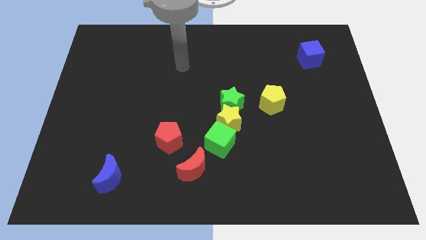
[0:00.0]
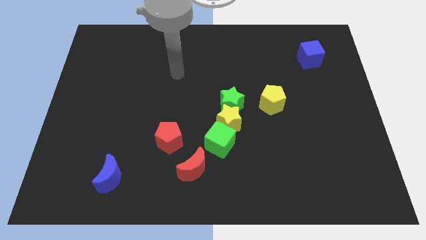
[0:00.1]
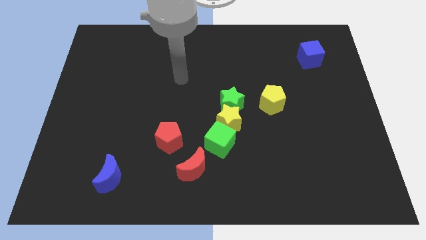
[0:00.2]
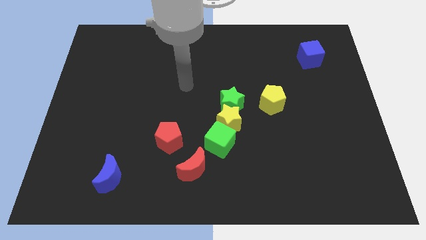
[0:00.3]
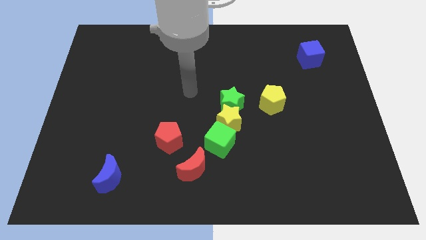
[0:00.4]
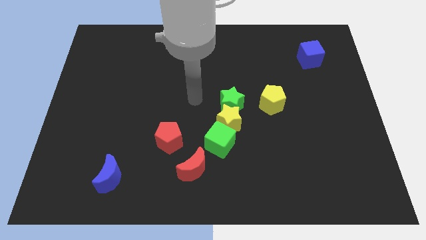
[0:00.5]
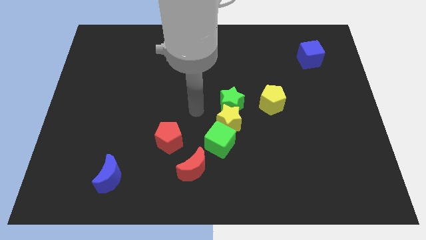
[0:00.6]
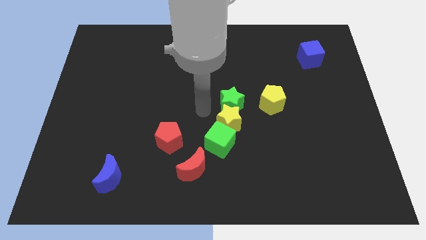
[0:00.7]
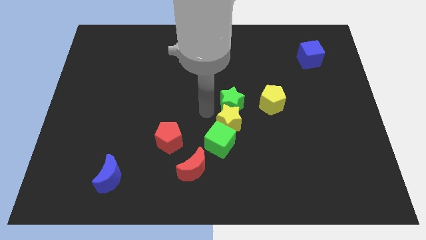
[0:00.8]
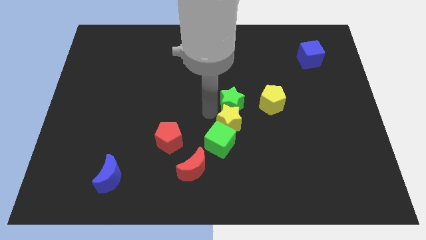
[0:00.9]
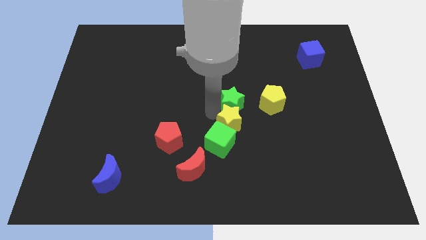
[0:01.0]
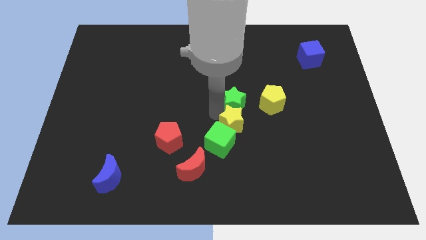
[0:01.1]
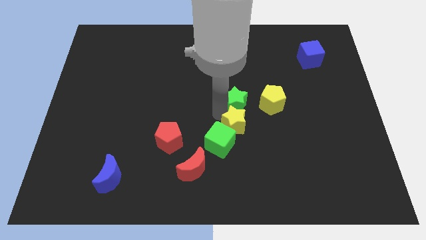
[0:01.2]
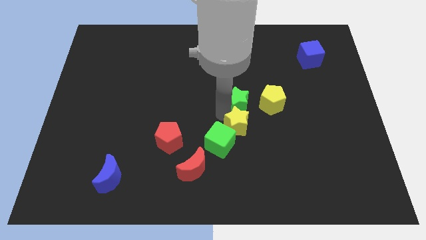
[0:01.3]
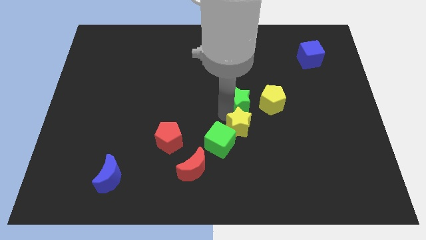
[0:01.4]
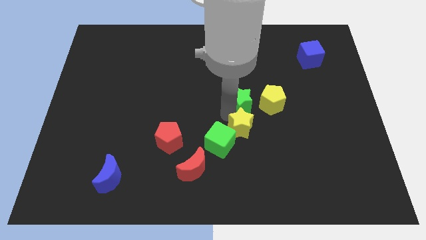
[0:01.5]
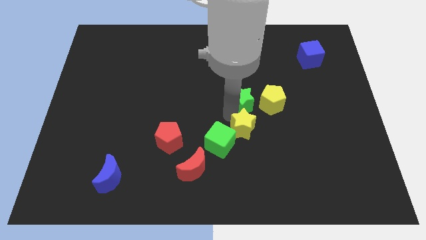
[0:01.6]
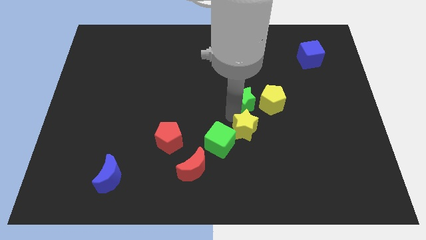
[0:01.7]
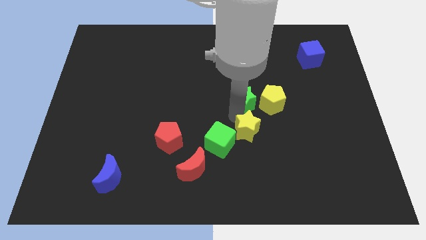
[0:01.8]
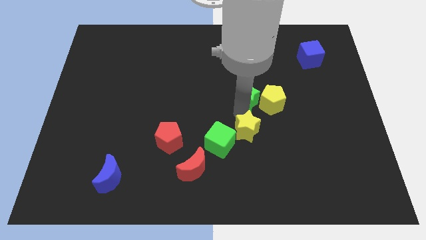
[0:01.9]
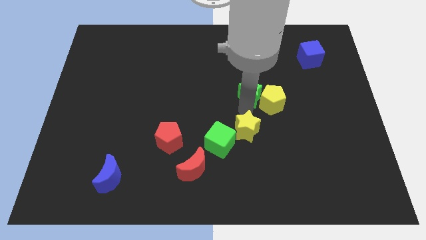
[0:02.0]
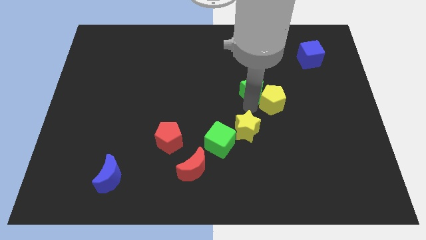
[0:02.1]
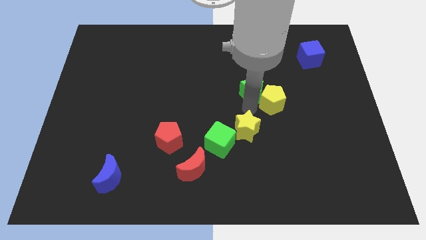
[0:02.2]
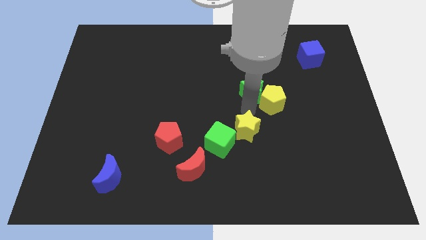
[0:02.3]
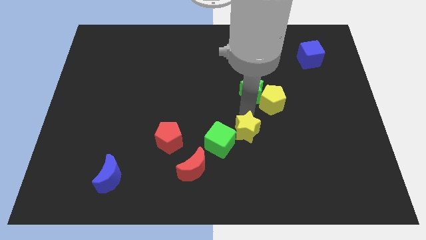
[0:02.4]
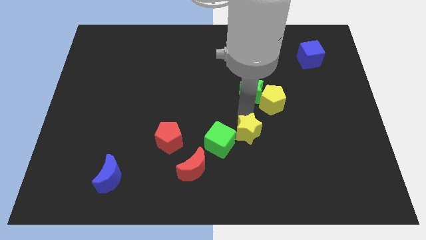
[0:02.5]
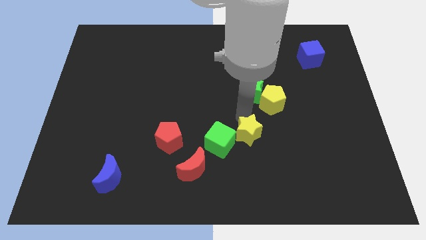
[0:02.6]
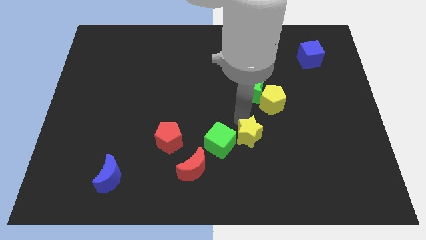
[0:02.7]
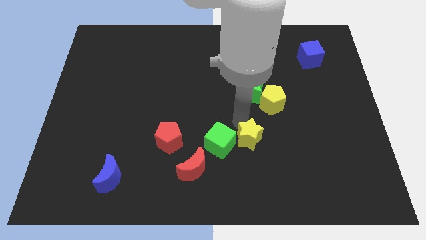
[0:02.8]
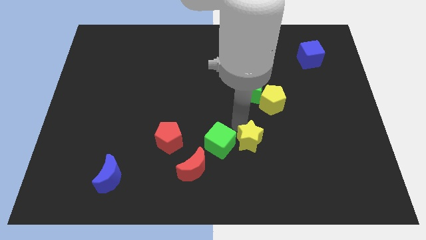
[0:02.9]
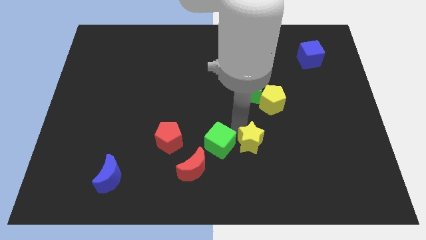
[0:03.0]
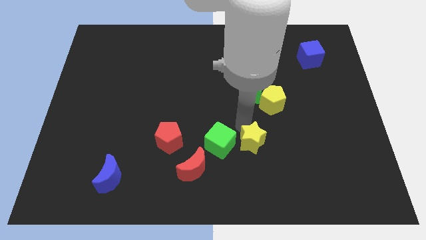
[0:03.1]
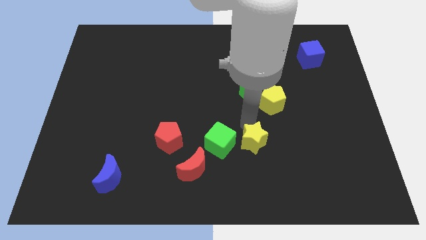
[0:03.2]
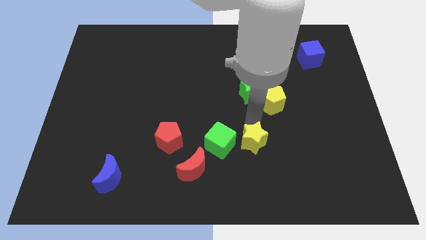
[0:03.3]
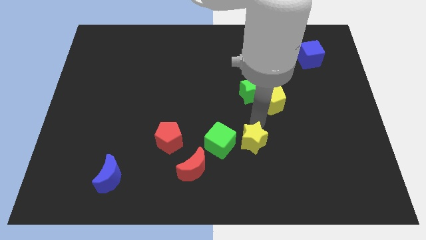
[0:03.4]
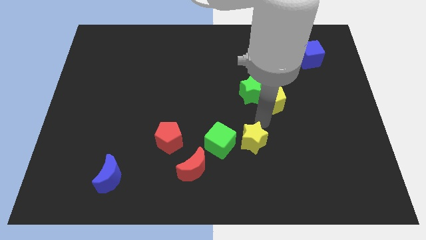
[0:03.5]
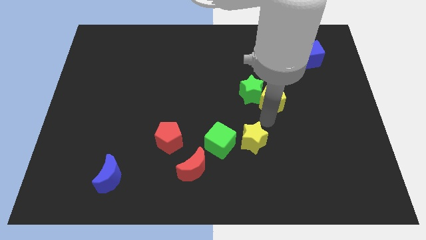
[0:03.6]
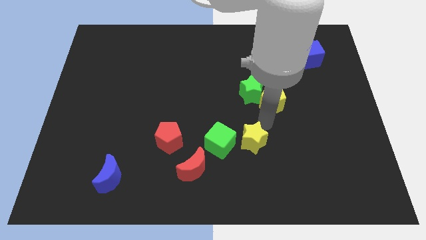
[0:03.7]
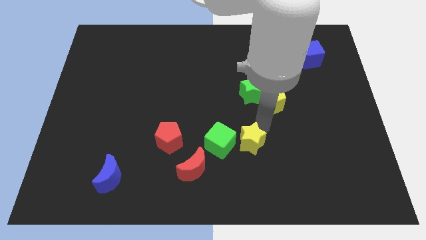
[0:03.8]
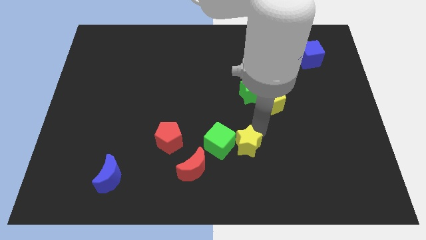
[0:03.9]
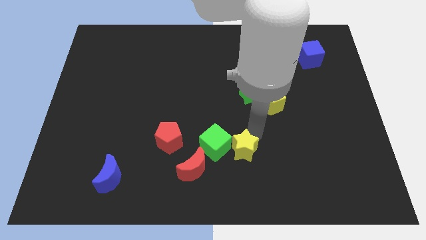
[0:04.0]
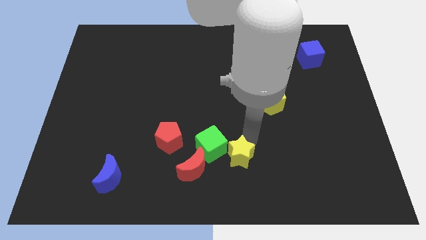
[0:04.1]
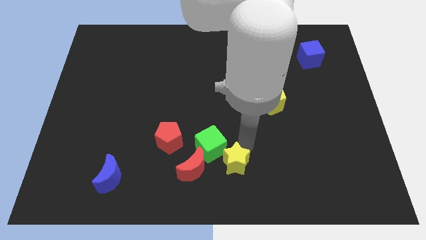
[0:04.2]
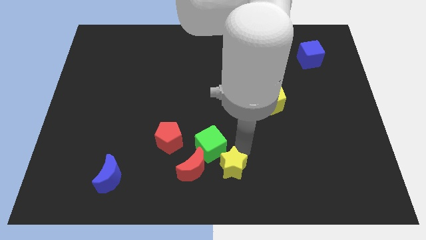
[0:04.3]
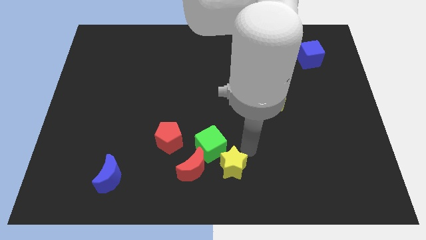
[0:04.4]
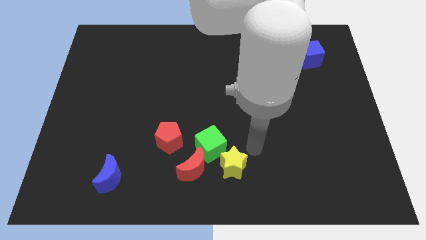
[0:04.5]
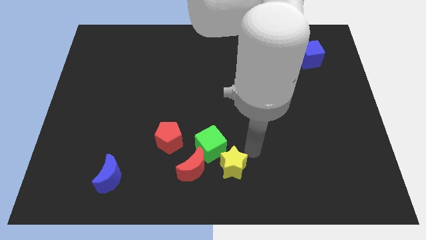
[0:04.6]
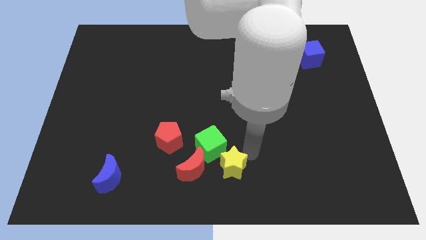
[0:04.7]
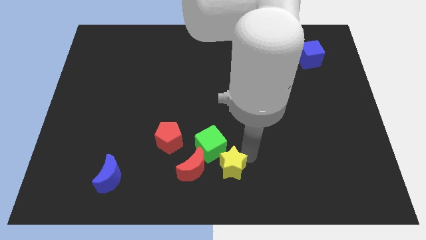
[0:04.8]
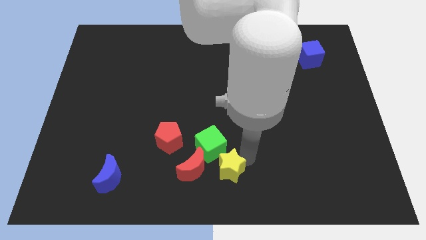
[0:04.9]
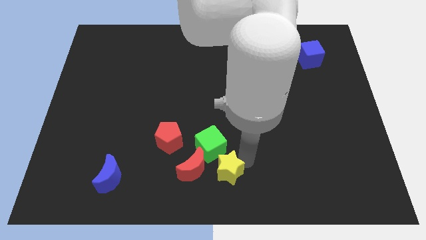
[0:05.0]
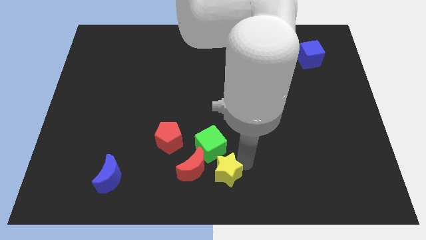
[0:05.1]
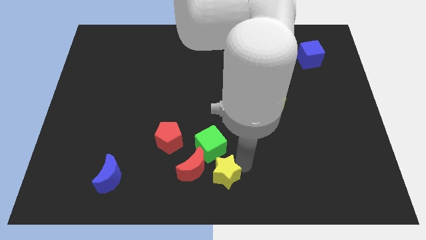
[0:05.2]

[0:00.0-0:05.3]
move the yellow star down and left diagonally somewhat

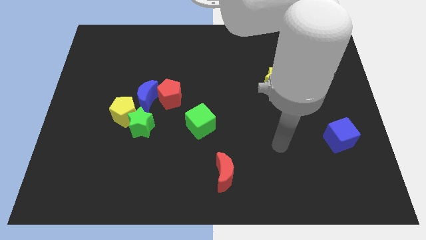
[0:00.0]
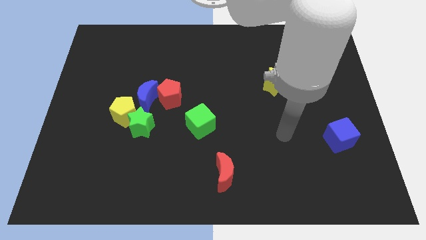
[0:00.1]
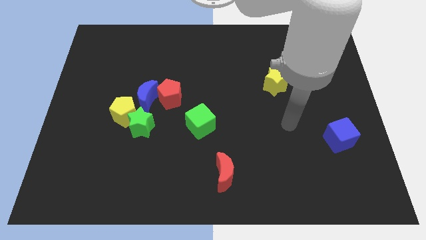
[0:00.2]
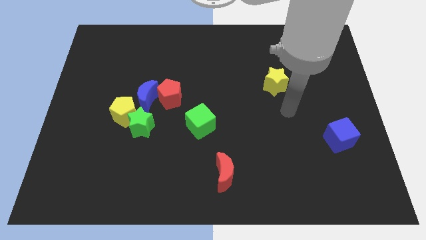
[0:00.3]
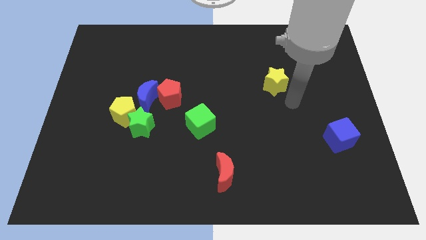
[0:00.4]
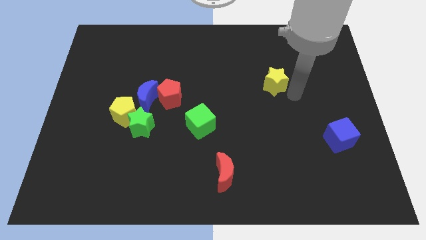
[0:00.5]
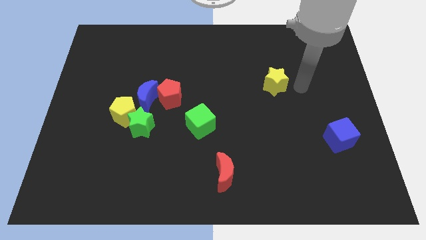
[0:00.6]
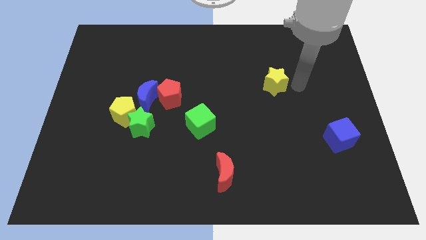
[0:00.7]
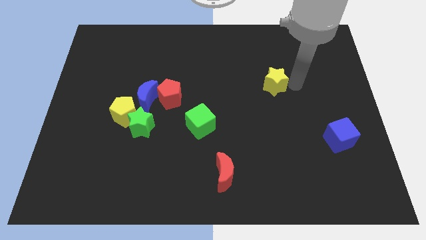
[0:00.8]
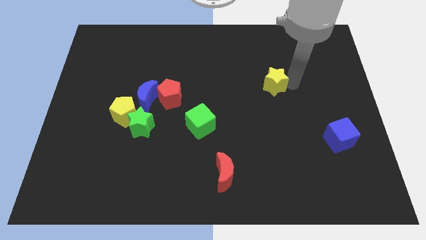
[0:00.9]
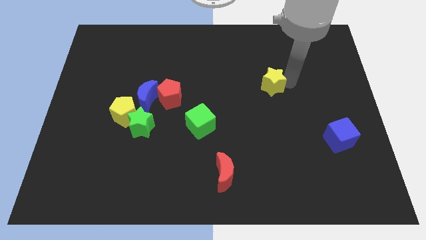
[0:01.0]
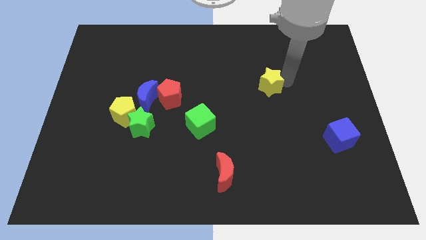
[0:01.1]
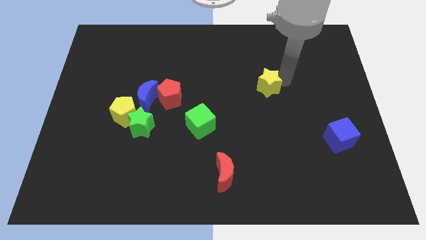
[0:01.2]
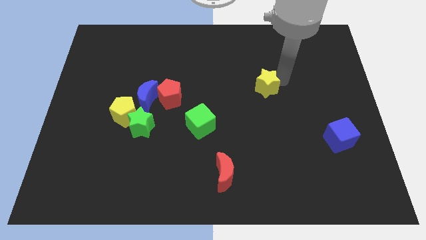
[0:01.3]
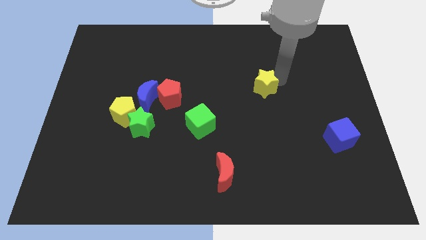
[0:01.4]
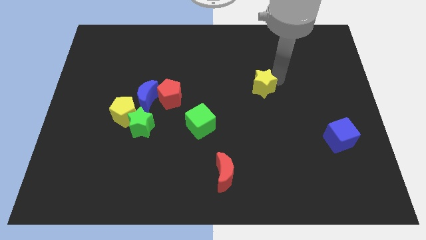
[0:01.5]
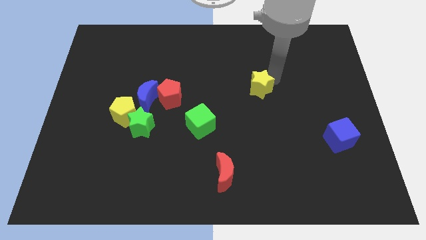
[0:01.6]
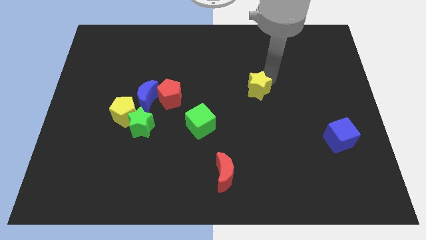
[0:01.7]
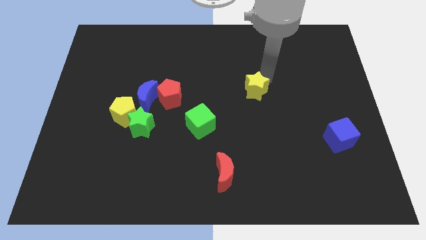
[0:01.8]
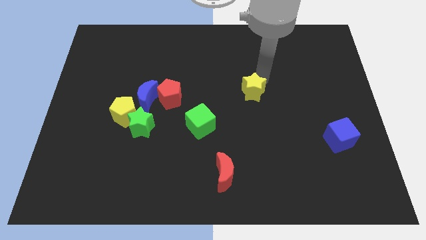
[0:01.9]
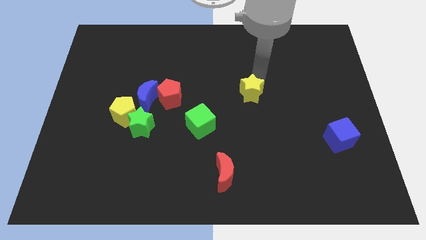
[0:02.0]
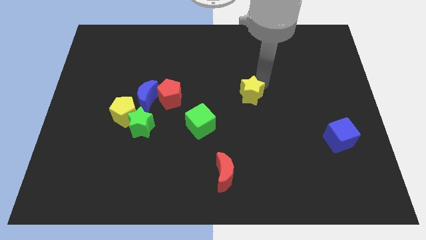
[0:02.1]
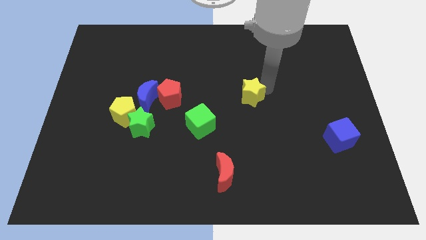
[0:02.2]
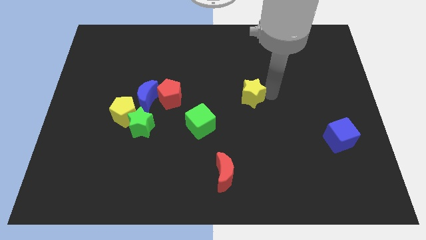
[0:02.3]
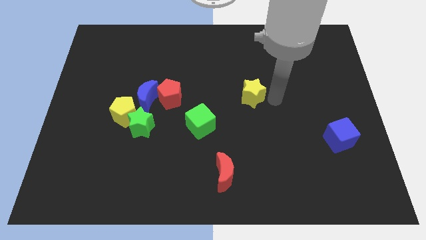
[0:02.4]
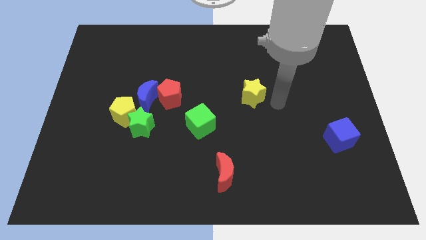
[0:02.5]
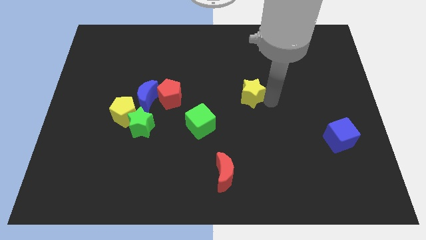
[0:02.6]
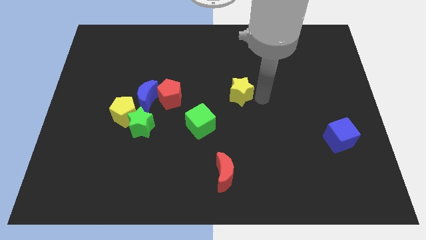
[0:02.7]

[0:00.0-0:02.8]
move the yellow star left a little bit
